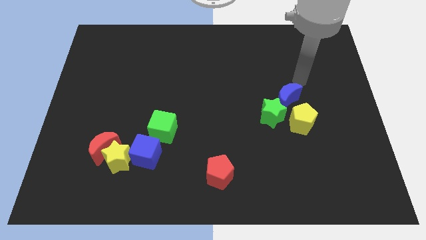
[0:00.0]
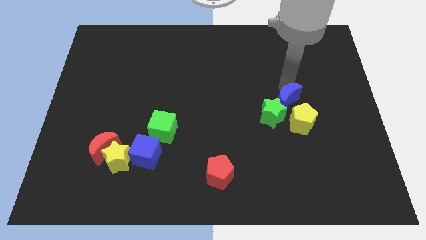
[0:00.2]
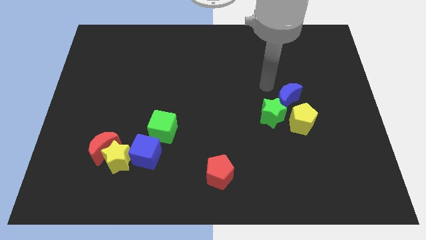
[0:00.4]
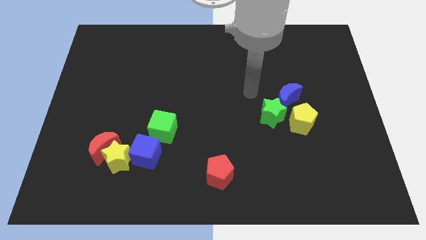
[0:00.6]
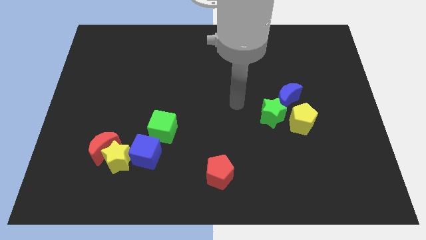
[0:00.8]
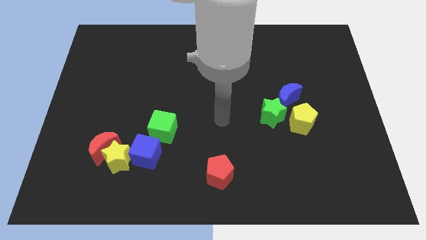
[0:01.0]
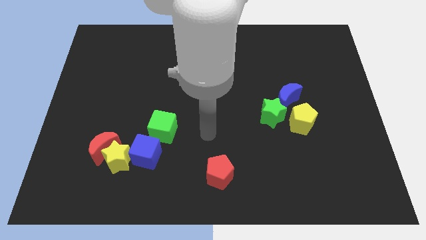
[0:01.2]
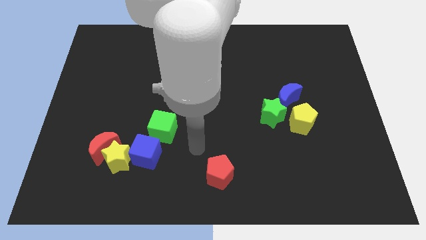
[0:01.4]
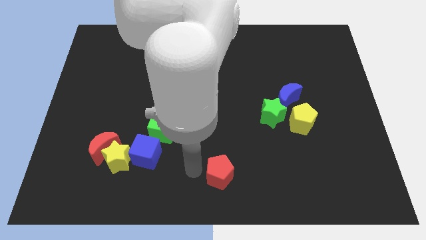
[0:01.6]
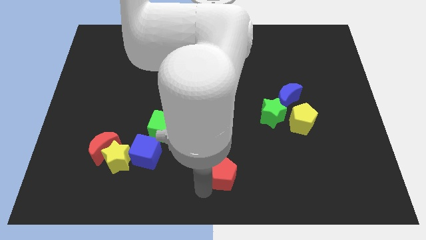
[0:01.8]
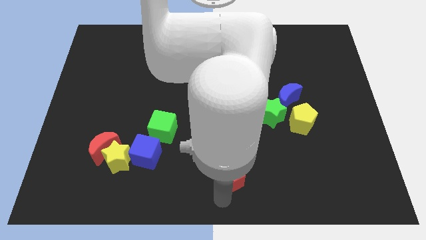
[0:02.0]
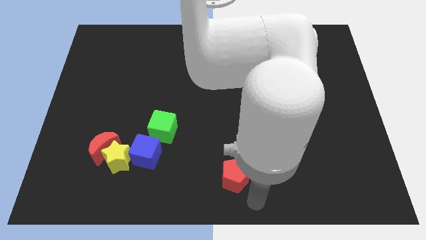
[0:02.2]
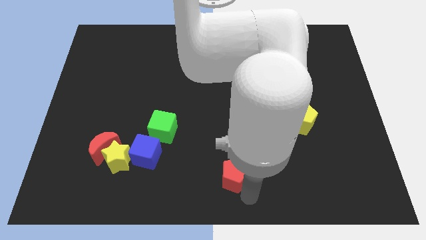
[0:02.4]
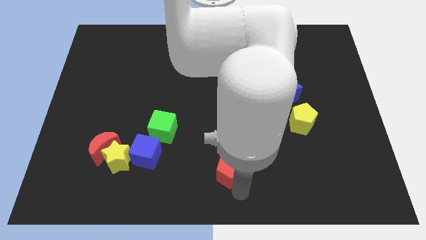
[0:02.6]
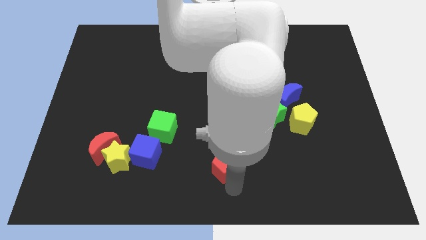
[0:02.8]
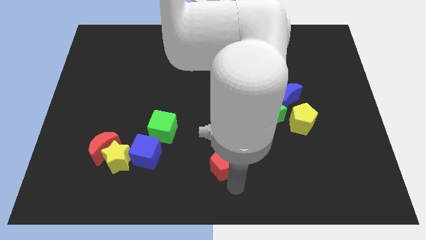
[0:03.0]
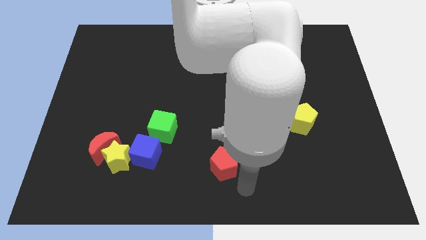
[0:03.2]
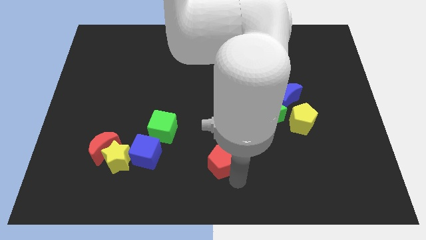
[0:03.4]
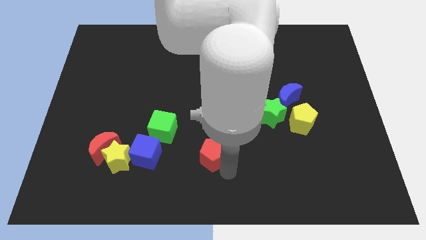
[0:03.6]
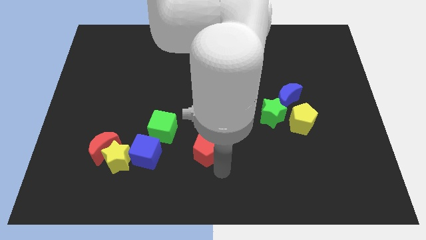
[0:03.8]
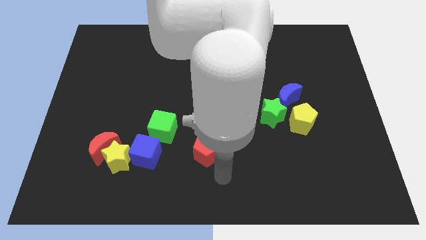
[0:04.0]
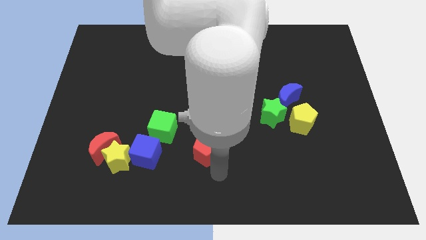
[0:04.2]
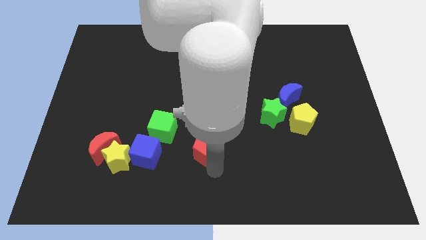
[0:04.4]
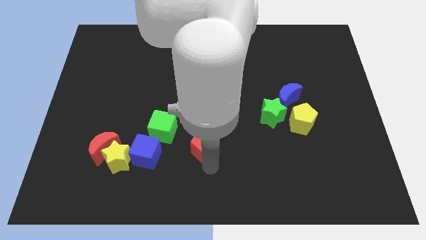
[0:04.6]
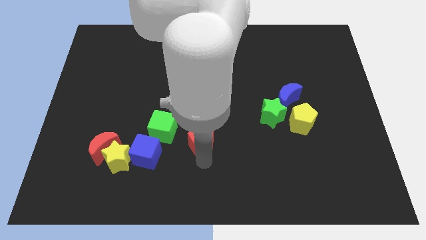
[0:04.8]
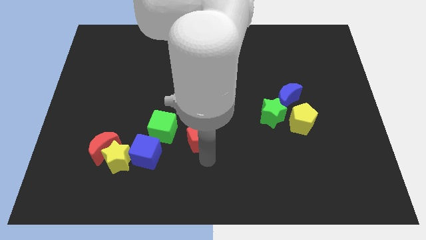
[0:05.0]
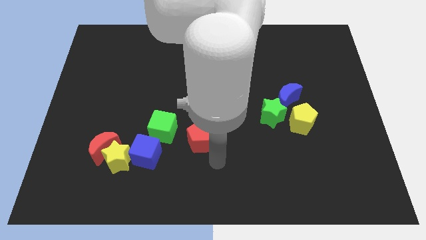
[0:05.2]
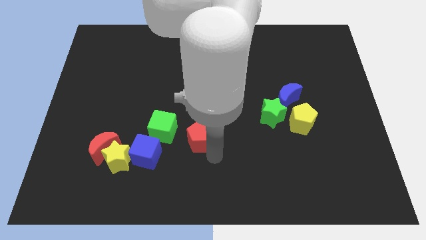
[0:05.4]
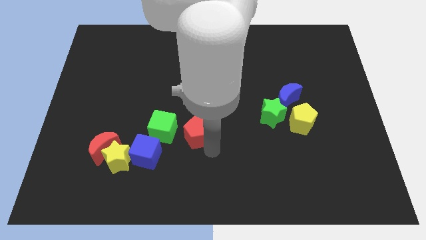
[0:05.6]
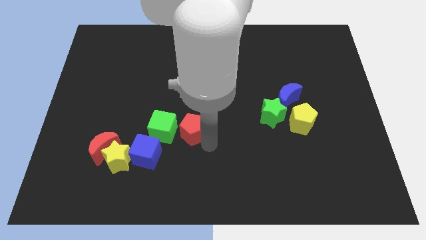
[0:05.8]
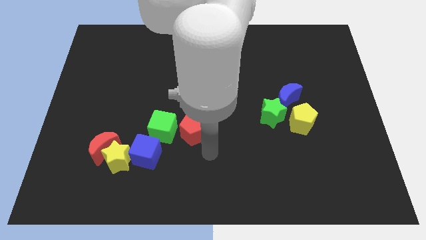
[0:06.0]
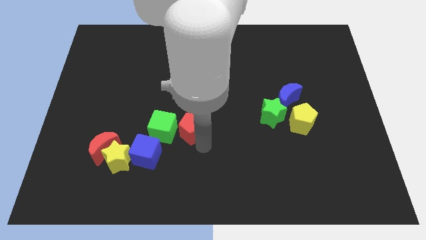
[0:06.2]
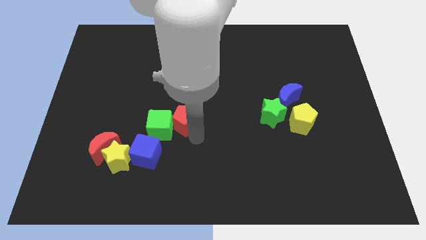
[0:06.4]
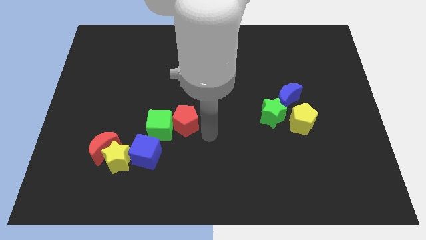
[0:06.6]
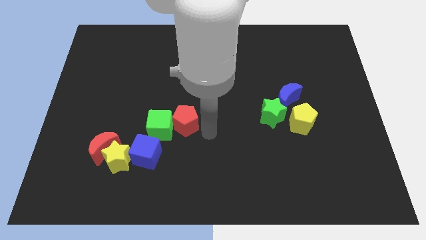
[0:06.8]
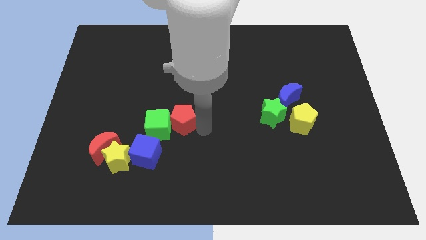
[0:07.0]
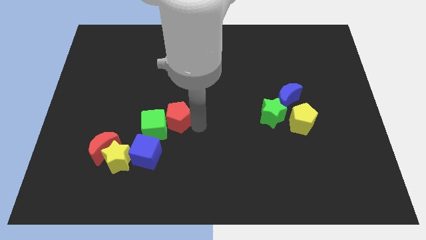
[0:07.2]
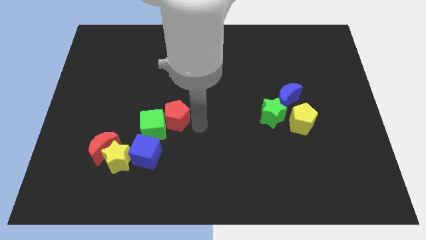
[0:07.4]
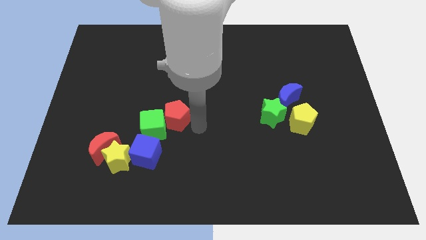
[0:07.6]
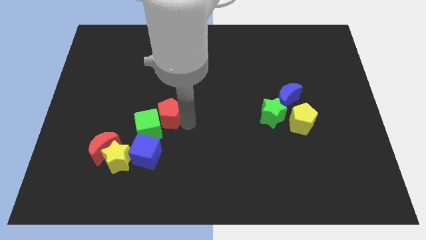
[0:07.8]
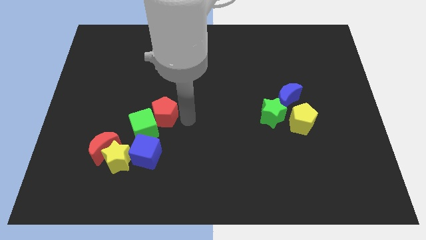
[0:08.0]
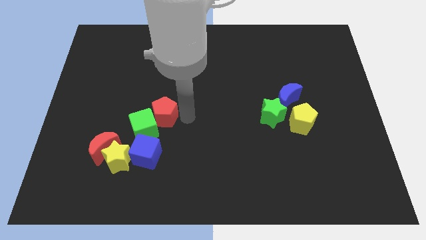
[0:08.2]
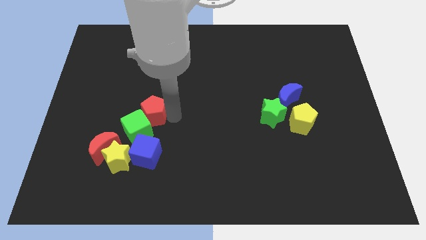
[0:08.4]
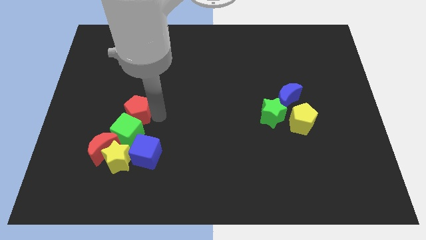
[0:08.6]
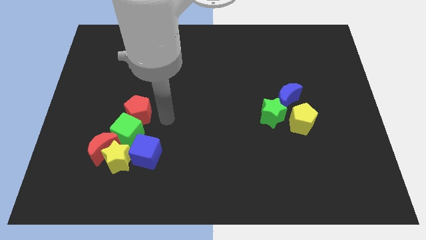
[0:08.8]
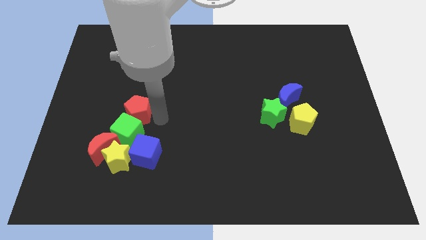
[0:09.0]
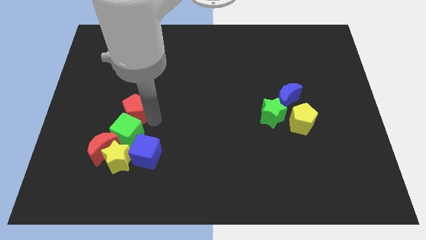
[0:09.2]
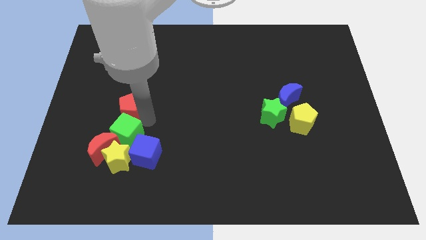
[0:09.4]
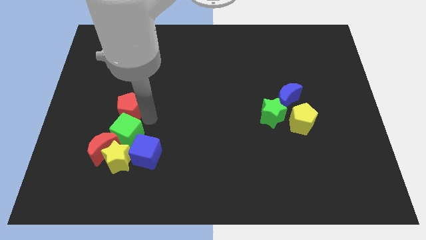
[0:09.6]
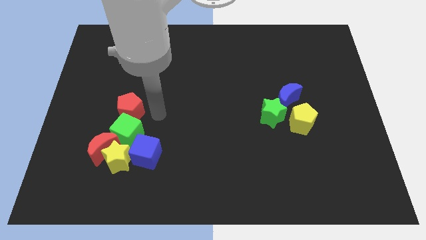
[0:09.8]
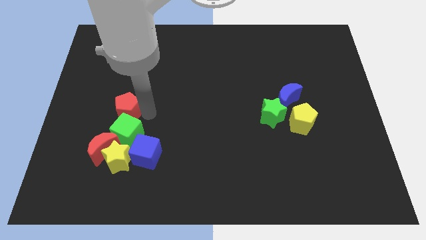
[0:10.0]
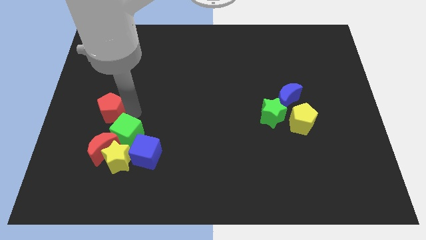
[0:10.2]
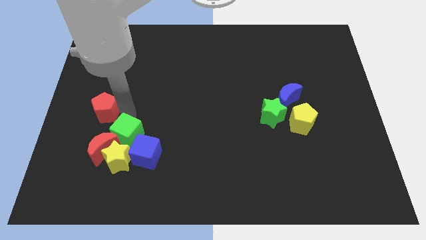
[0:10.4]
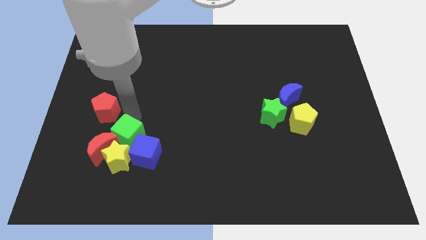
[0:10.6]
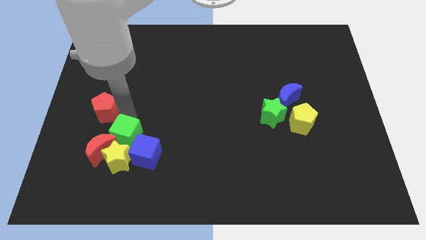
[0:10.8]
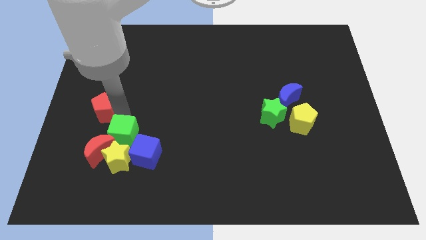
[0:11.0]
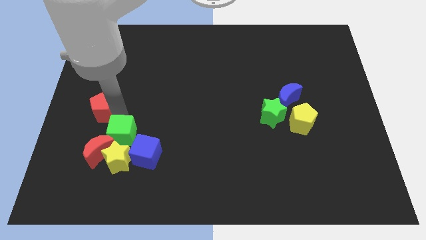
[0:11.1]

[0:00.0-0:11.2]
put the red pentagon to the left side of the board
